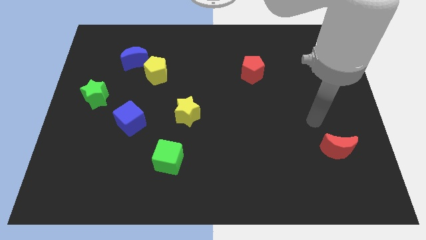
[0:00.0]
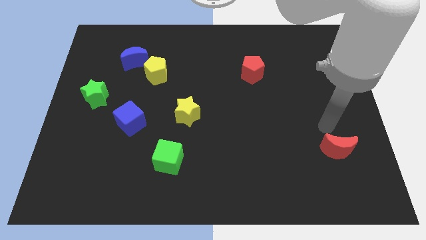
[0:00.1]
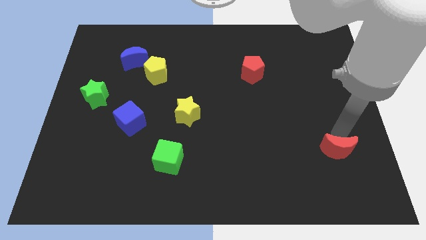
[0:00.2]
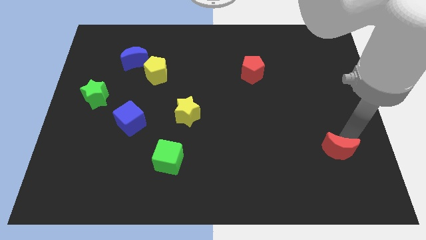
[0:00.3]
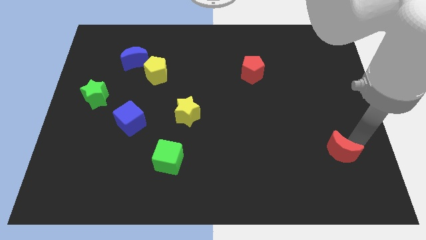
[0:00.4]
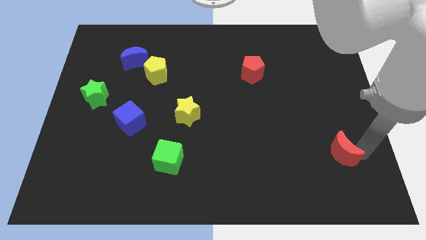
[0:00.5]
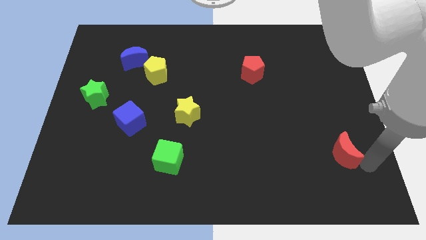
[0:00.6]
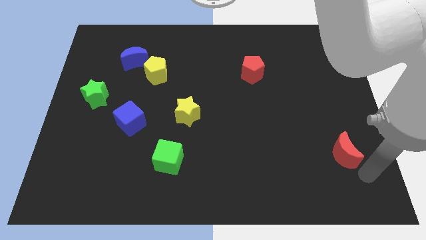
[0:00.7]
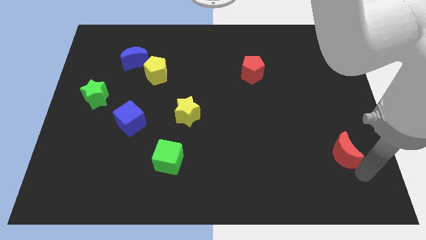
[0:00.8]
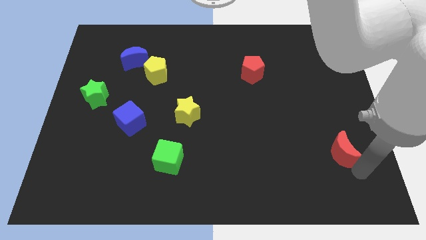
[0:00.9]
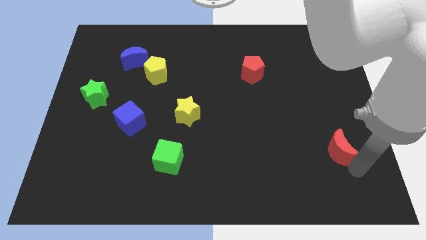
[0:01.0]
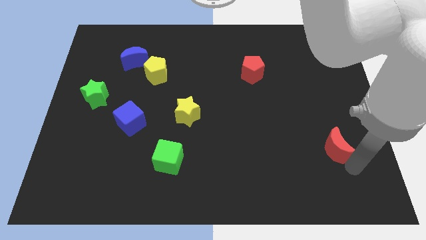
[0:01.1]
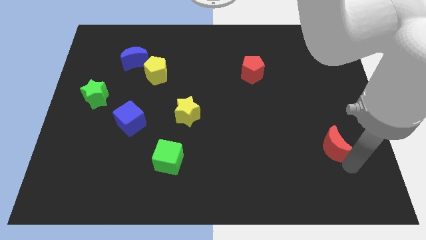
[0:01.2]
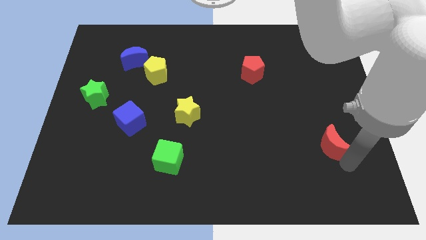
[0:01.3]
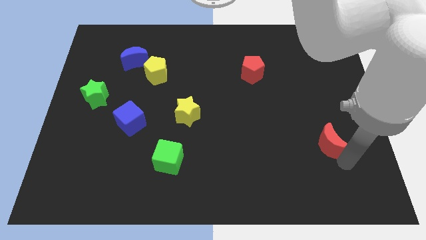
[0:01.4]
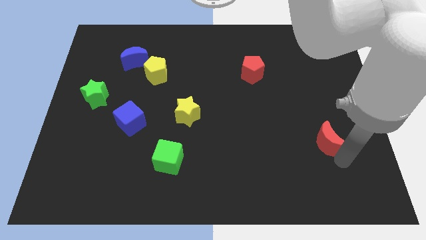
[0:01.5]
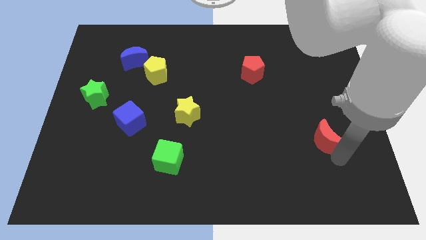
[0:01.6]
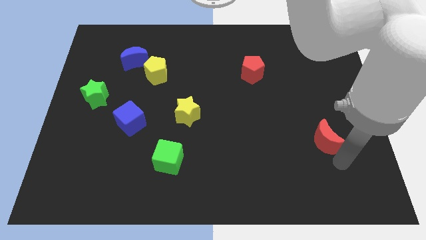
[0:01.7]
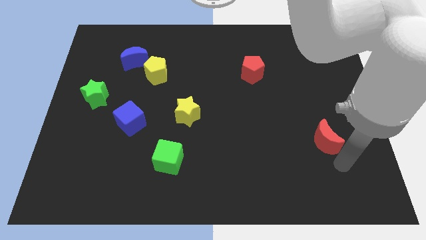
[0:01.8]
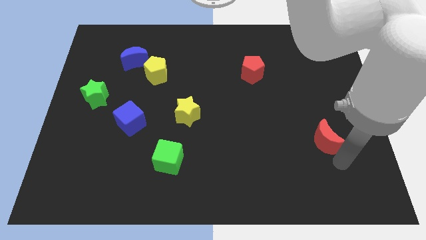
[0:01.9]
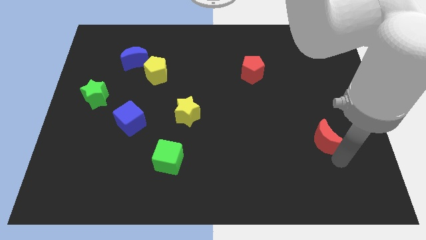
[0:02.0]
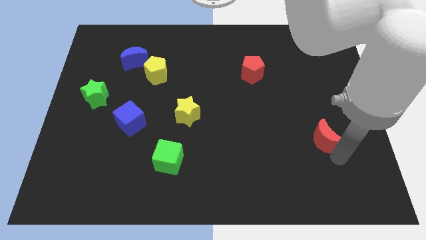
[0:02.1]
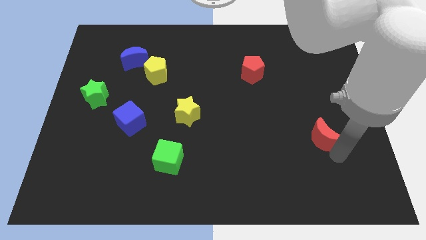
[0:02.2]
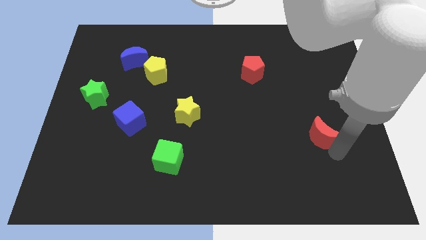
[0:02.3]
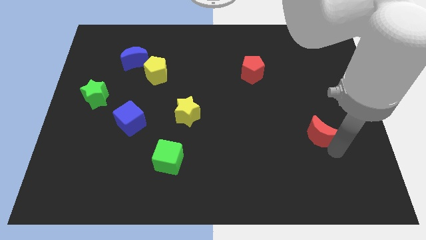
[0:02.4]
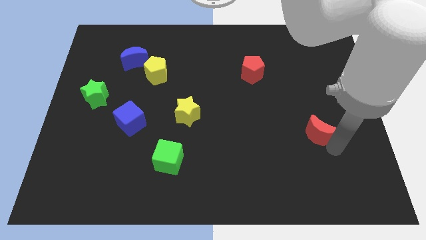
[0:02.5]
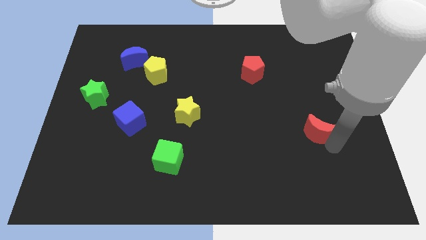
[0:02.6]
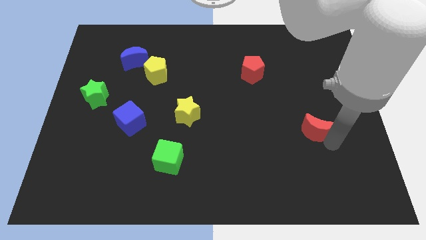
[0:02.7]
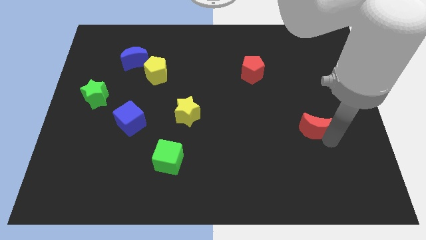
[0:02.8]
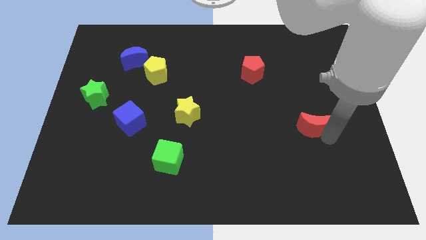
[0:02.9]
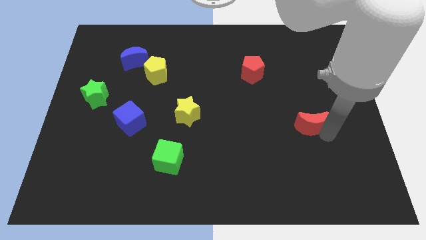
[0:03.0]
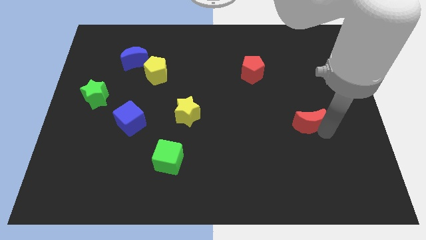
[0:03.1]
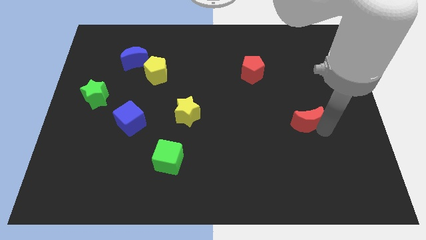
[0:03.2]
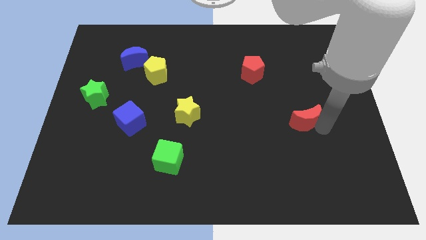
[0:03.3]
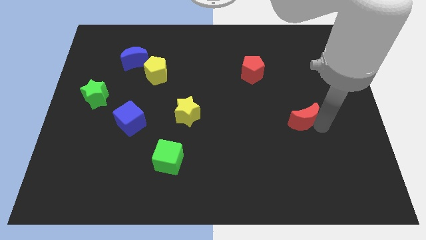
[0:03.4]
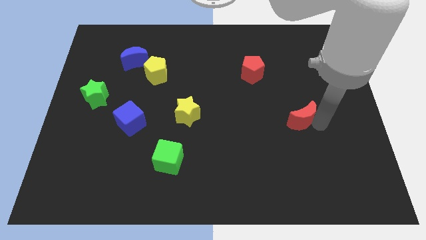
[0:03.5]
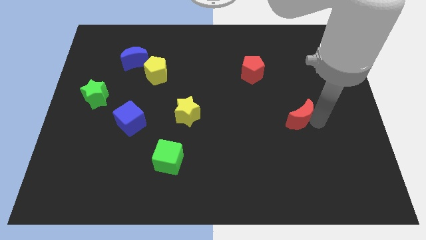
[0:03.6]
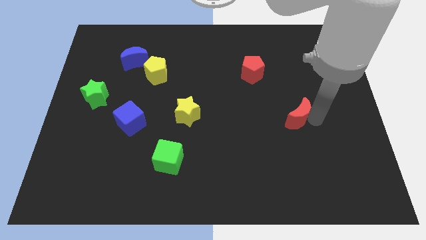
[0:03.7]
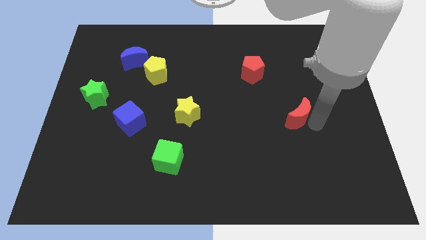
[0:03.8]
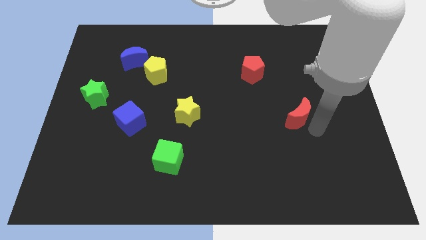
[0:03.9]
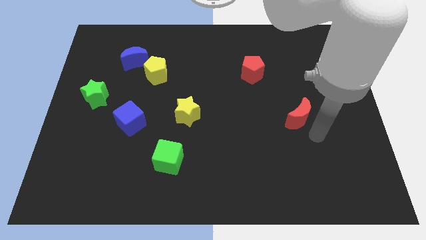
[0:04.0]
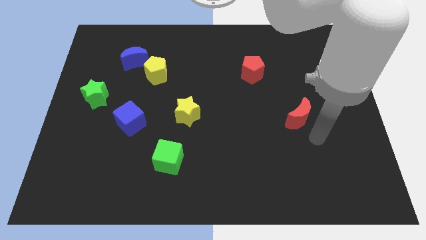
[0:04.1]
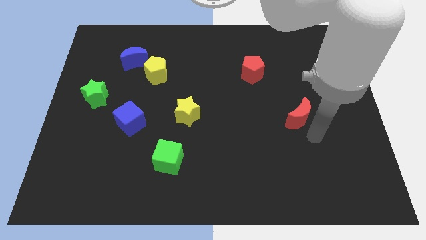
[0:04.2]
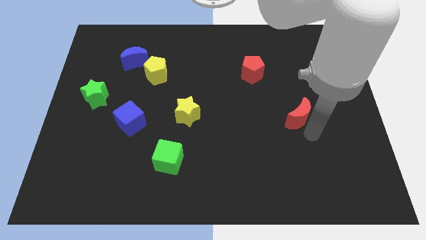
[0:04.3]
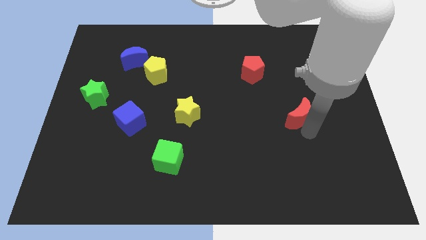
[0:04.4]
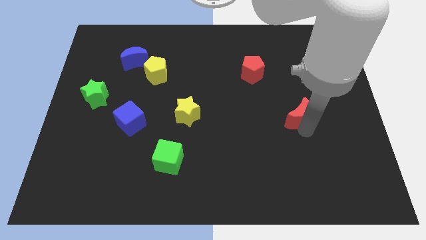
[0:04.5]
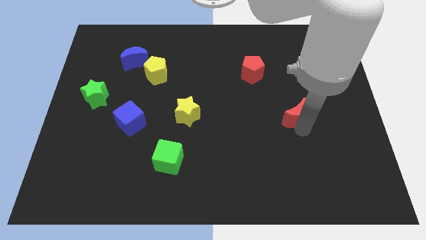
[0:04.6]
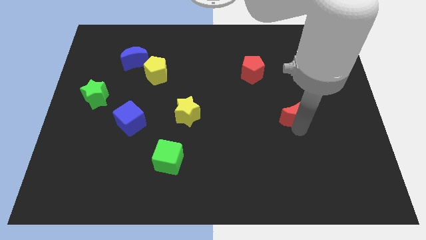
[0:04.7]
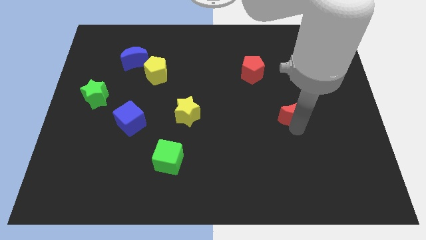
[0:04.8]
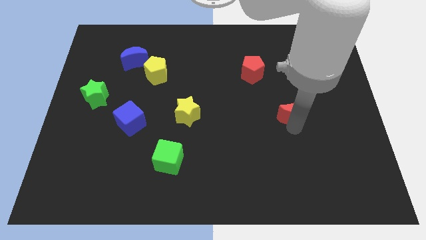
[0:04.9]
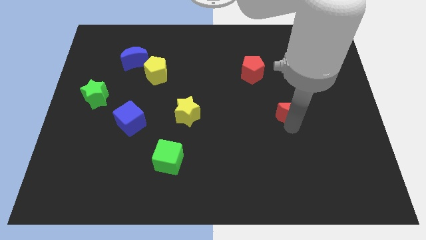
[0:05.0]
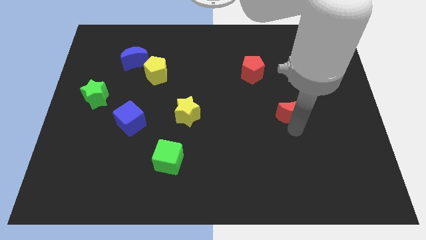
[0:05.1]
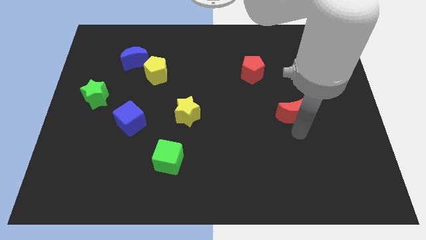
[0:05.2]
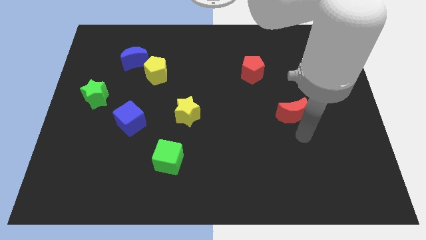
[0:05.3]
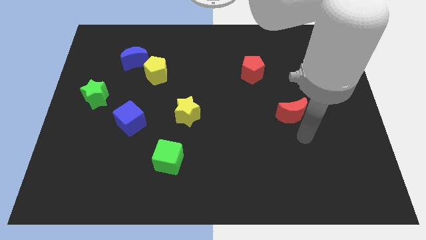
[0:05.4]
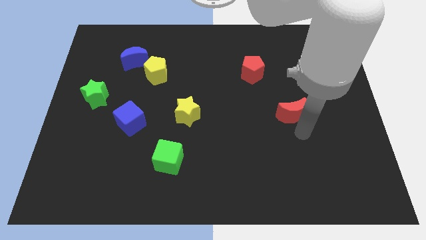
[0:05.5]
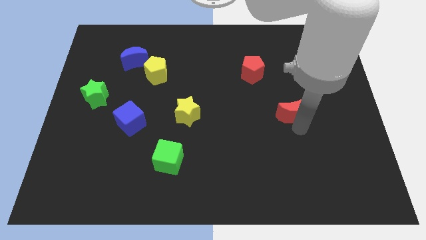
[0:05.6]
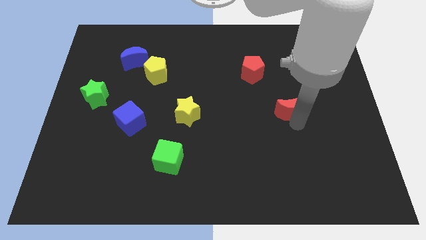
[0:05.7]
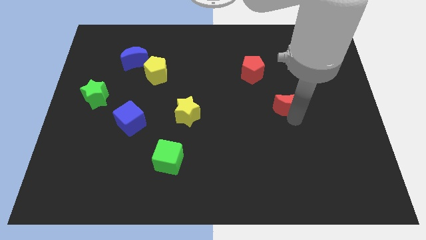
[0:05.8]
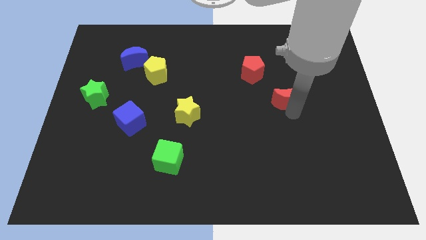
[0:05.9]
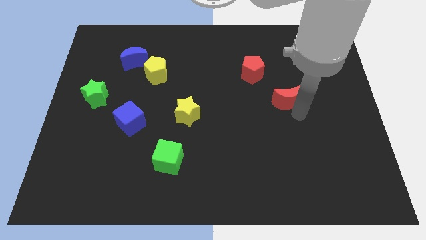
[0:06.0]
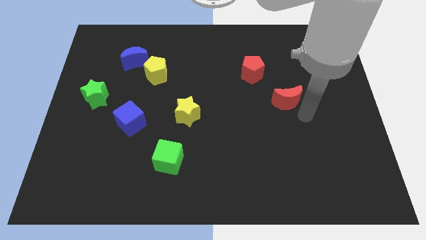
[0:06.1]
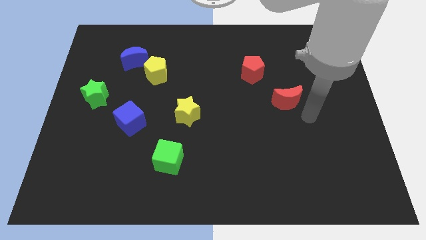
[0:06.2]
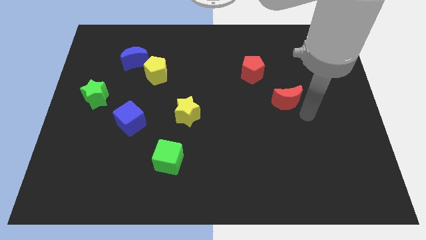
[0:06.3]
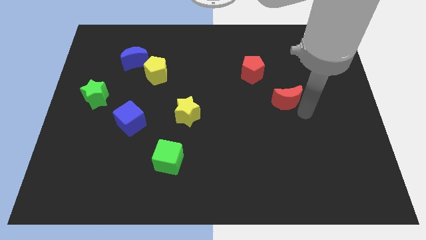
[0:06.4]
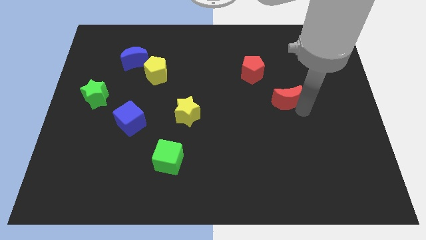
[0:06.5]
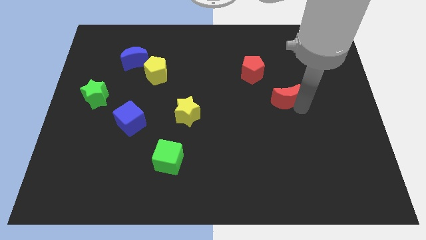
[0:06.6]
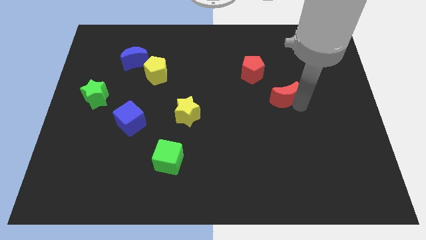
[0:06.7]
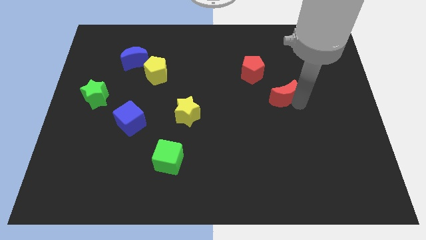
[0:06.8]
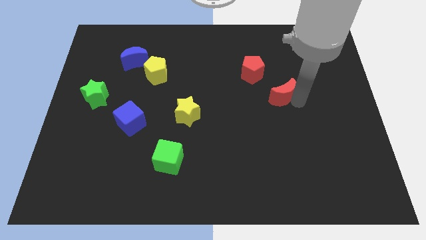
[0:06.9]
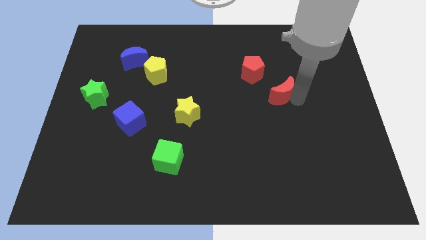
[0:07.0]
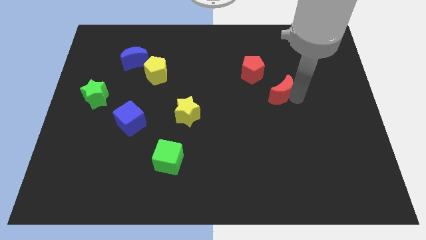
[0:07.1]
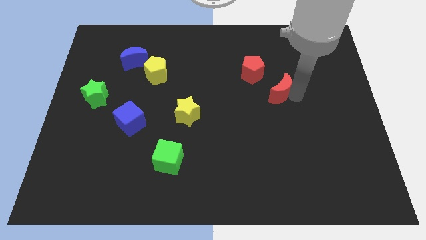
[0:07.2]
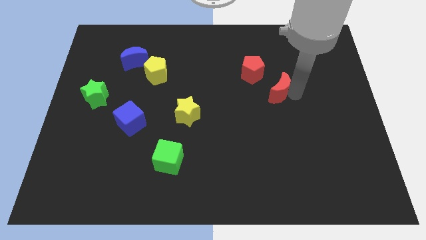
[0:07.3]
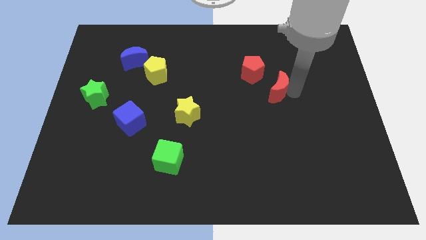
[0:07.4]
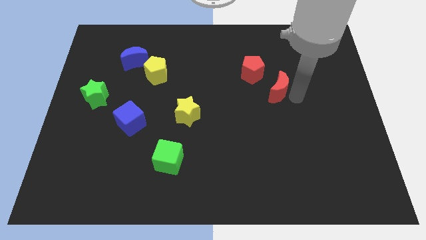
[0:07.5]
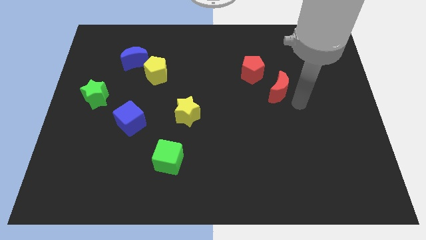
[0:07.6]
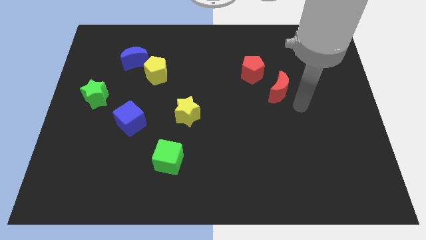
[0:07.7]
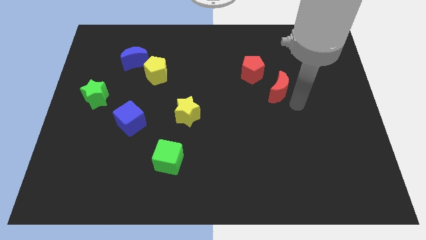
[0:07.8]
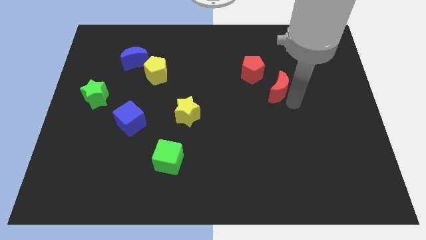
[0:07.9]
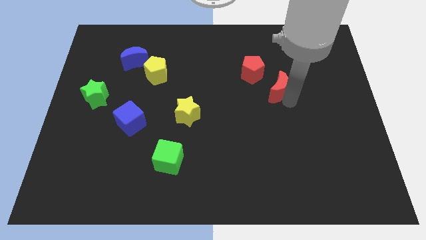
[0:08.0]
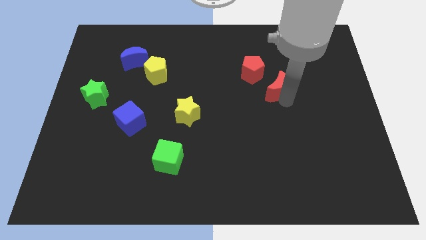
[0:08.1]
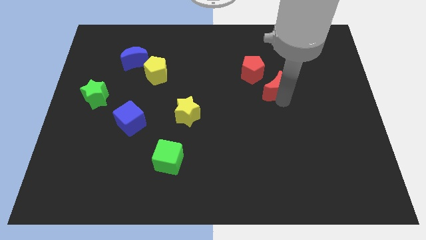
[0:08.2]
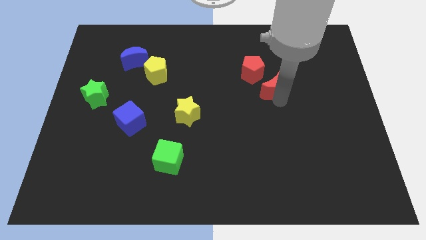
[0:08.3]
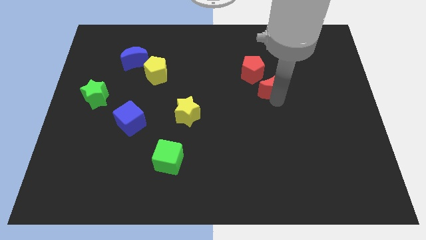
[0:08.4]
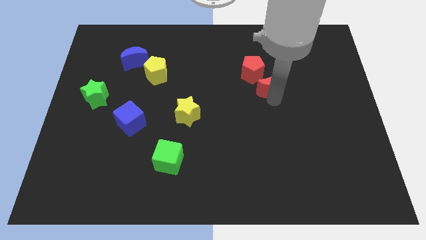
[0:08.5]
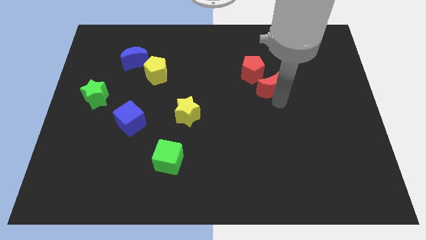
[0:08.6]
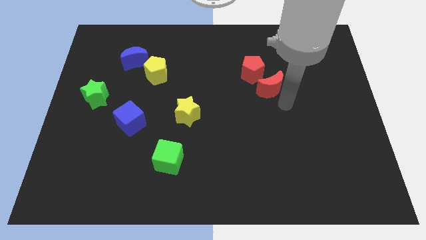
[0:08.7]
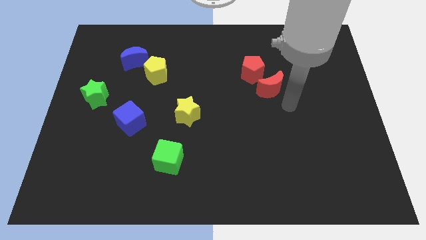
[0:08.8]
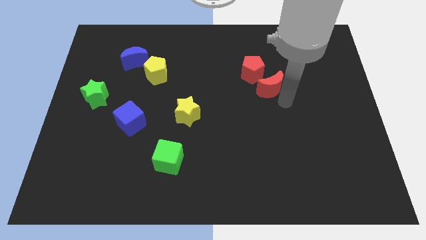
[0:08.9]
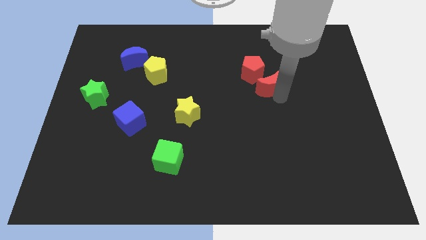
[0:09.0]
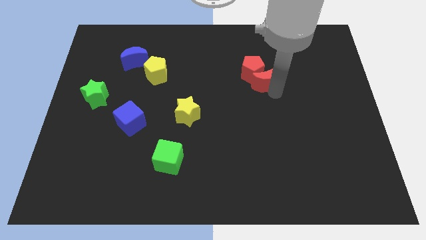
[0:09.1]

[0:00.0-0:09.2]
put the red moon next to the red pentagon
